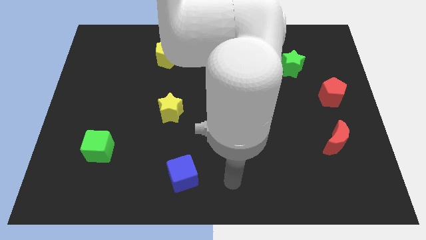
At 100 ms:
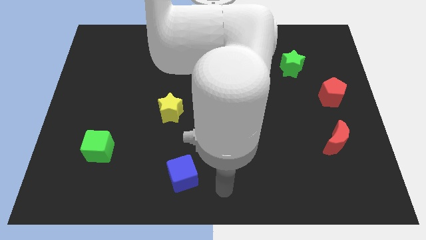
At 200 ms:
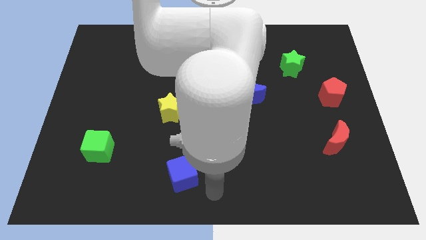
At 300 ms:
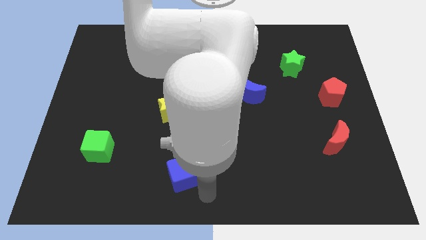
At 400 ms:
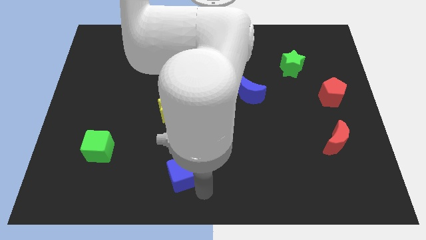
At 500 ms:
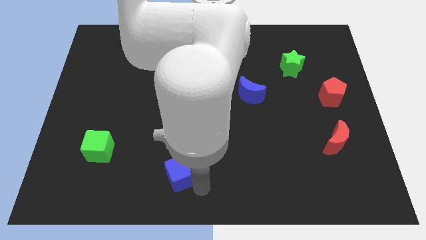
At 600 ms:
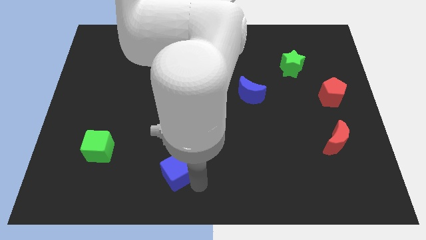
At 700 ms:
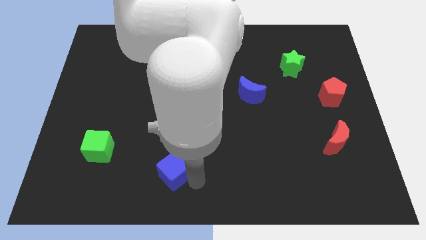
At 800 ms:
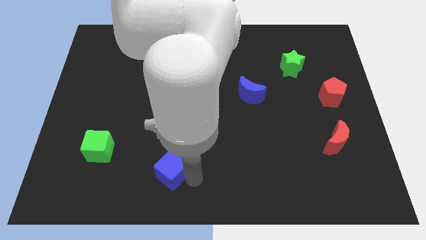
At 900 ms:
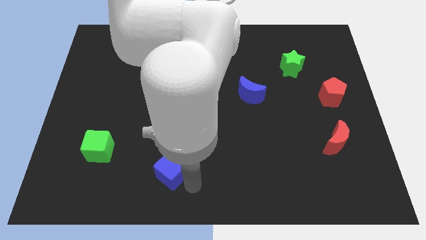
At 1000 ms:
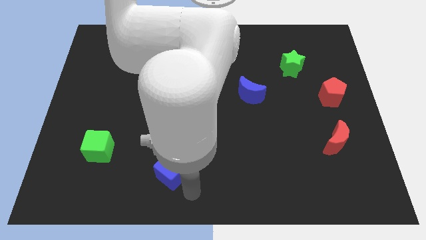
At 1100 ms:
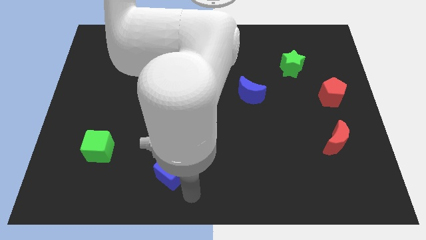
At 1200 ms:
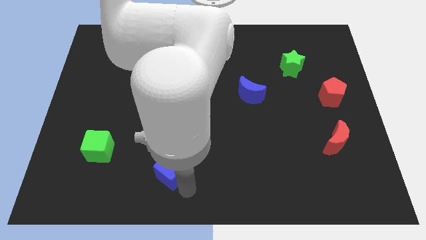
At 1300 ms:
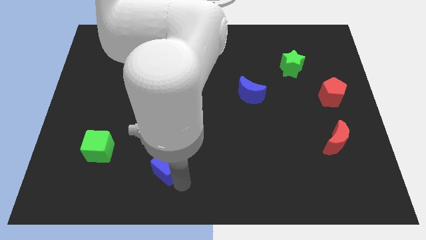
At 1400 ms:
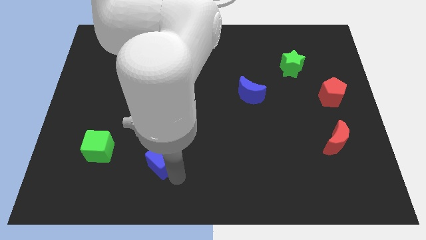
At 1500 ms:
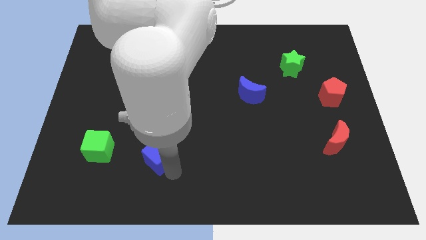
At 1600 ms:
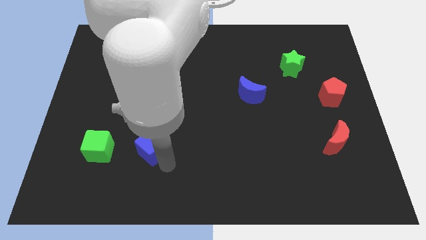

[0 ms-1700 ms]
slightly move the blue cube up and then to the left

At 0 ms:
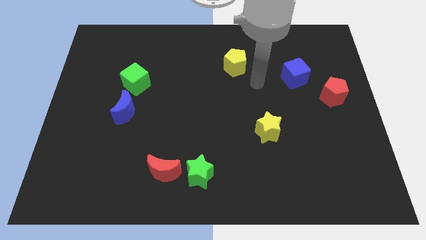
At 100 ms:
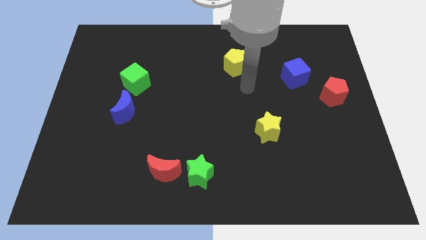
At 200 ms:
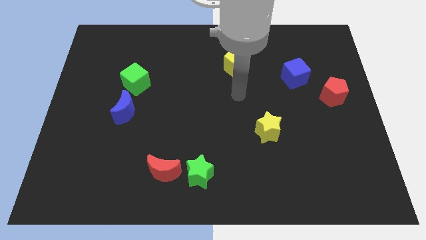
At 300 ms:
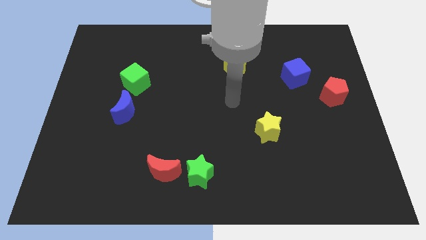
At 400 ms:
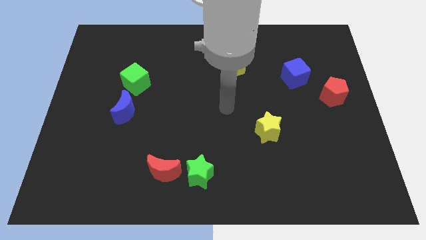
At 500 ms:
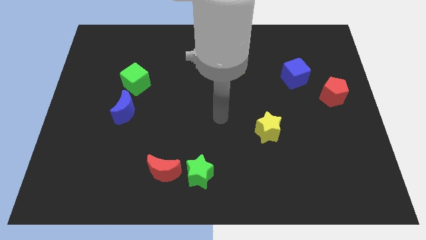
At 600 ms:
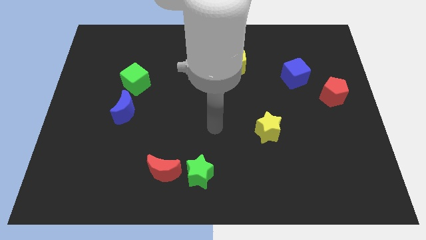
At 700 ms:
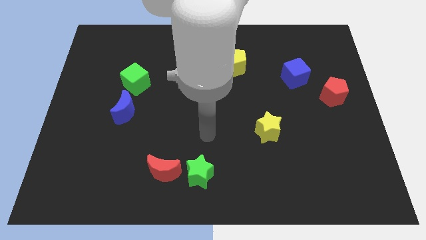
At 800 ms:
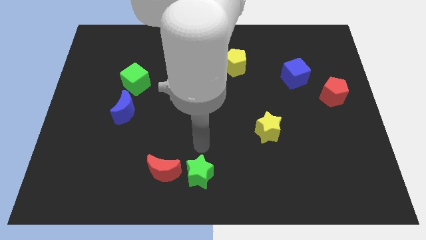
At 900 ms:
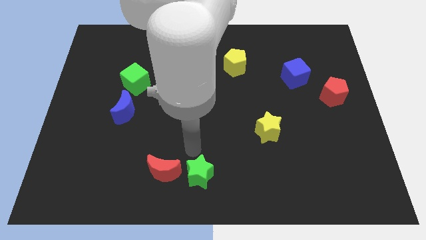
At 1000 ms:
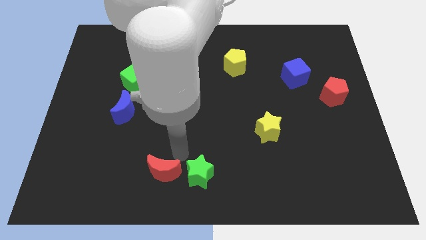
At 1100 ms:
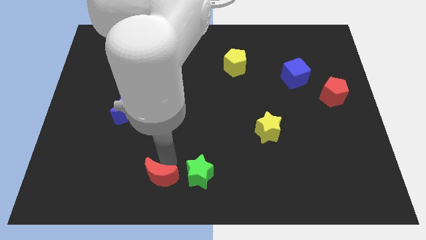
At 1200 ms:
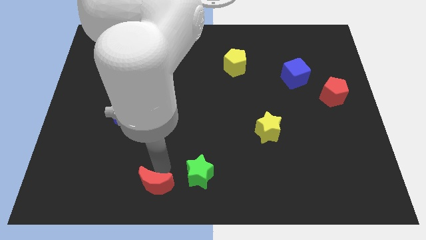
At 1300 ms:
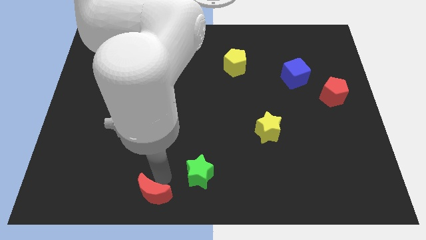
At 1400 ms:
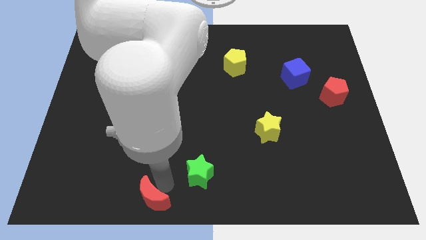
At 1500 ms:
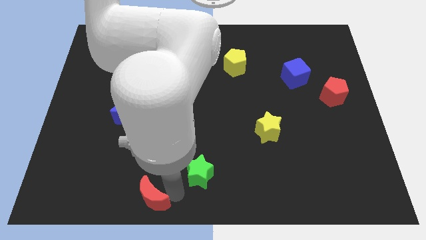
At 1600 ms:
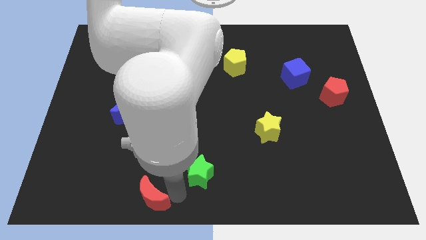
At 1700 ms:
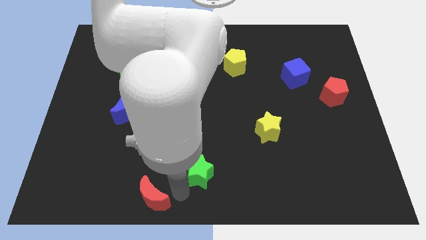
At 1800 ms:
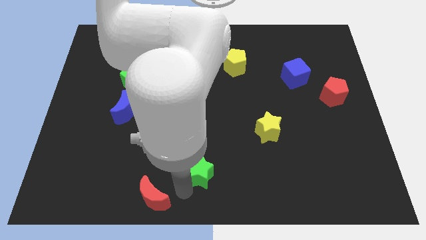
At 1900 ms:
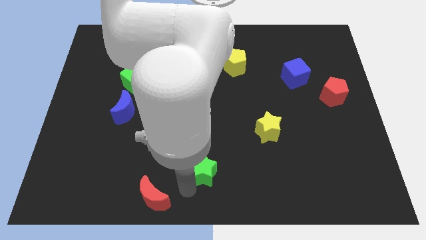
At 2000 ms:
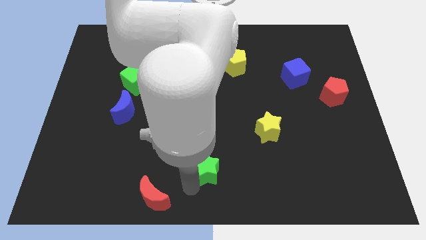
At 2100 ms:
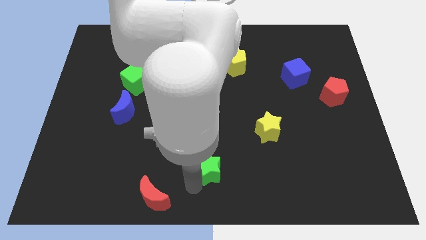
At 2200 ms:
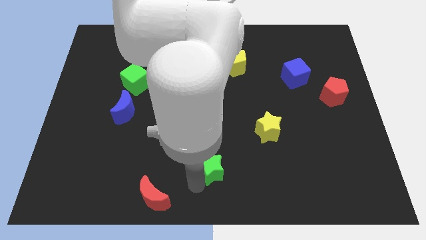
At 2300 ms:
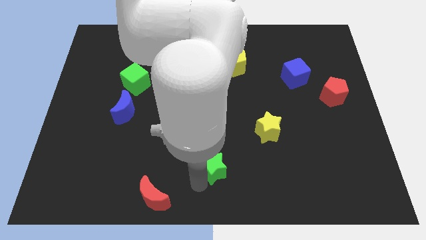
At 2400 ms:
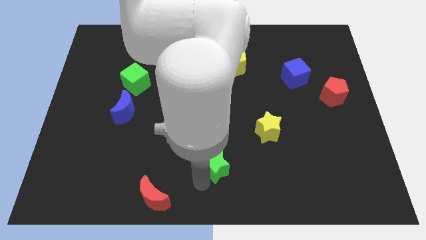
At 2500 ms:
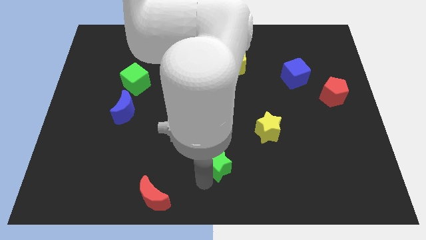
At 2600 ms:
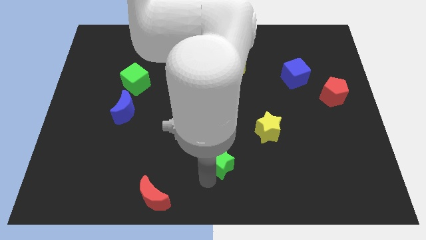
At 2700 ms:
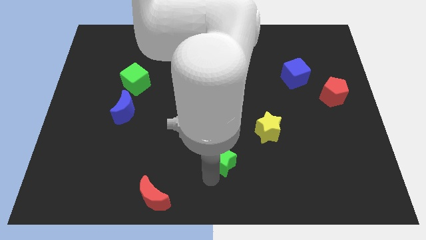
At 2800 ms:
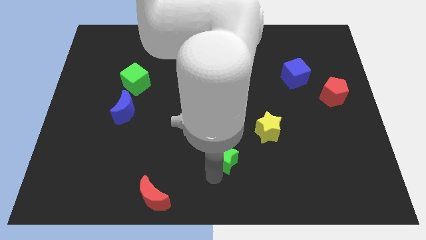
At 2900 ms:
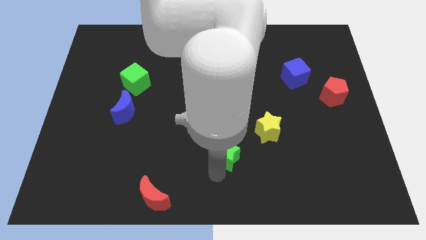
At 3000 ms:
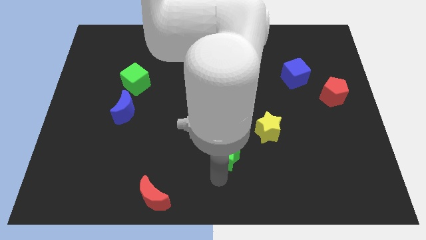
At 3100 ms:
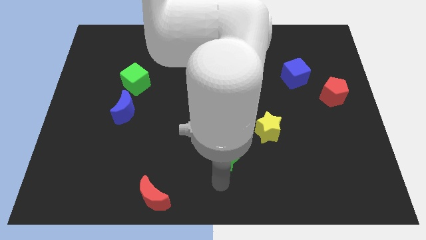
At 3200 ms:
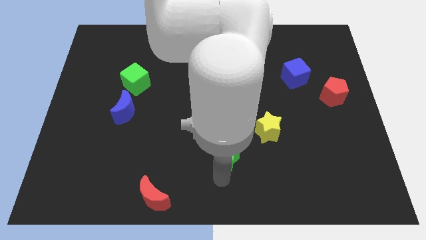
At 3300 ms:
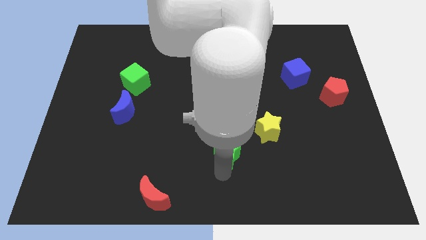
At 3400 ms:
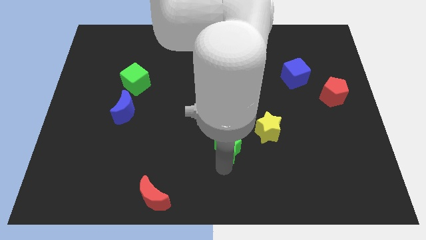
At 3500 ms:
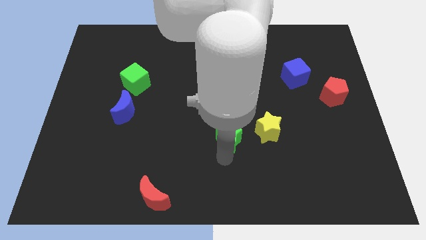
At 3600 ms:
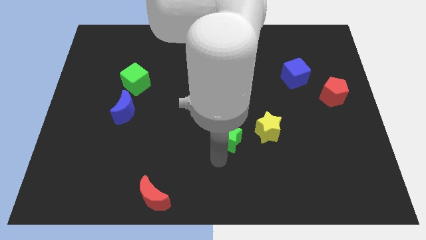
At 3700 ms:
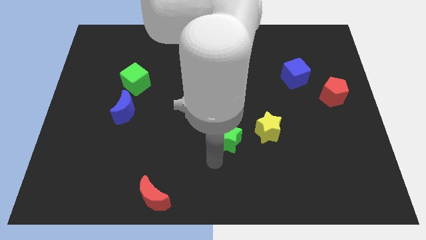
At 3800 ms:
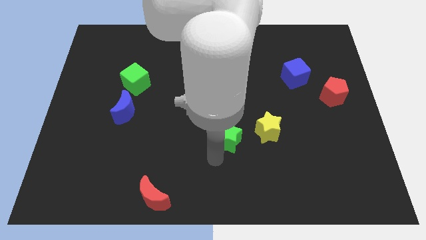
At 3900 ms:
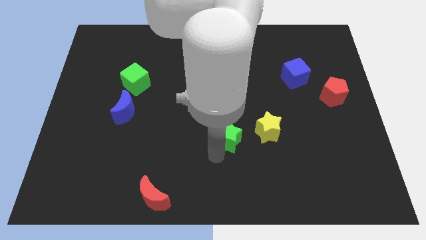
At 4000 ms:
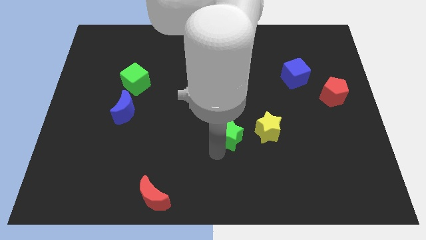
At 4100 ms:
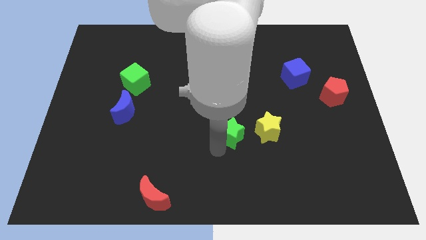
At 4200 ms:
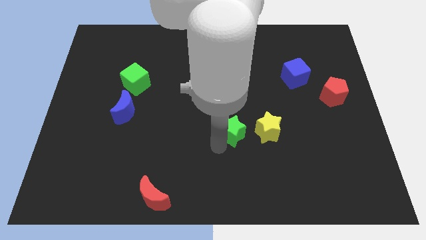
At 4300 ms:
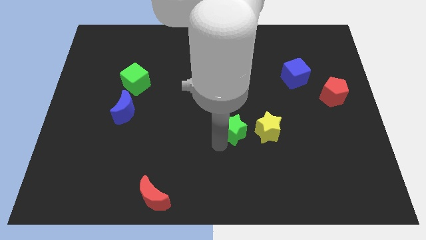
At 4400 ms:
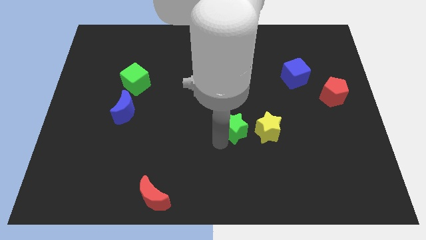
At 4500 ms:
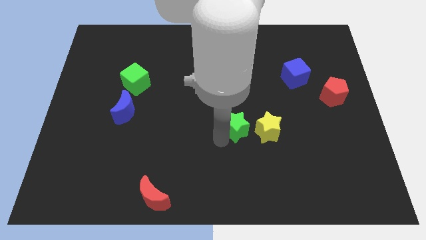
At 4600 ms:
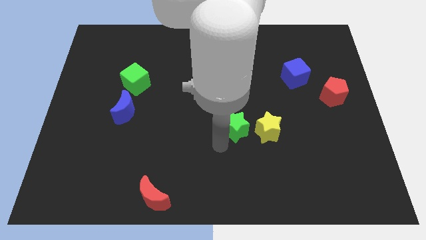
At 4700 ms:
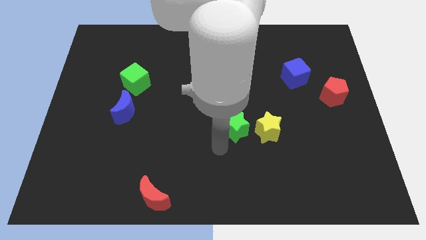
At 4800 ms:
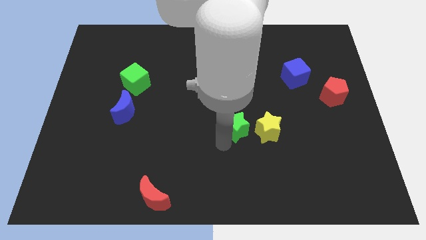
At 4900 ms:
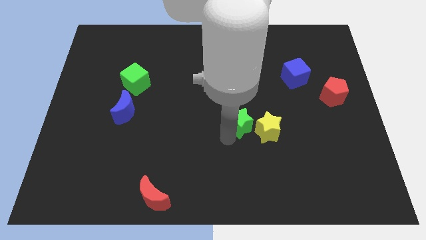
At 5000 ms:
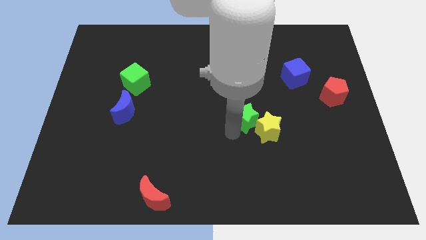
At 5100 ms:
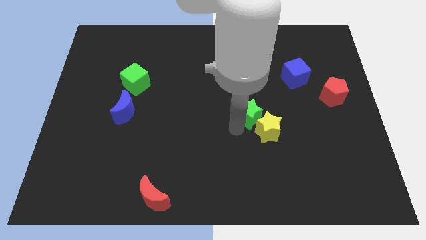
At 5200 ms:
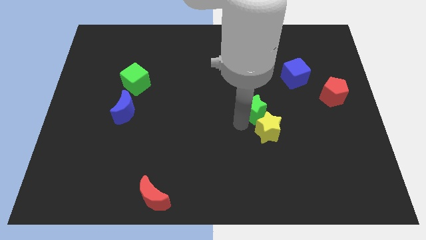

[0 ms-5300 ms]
slide the green star upwards and right

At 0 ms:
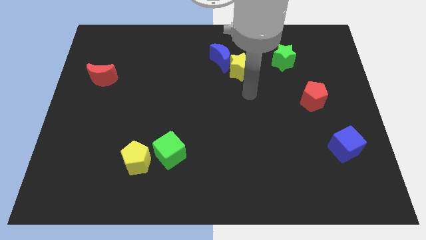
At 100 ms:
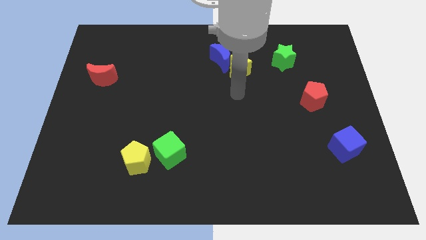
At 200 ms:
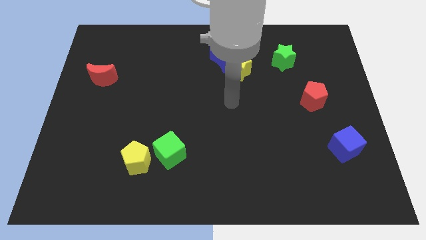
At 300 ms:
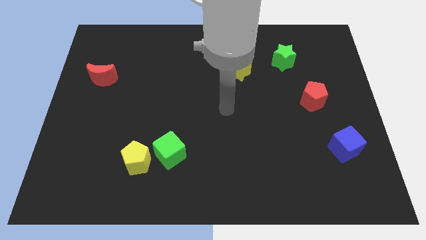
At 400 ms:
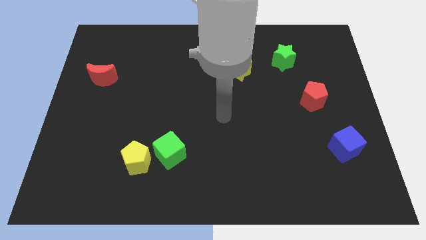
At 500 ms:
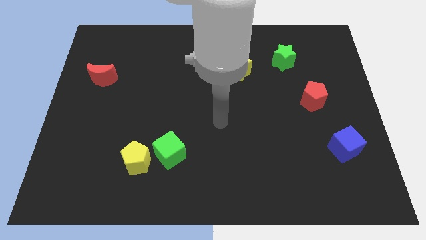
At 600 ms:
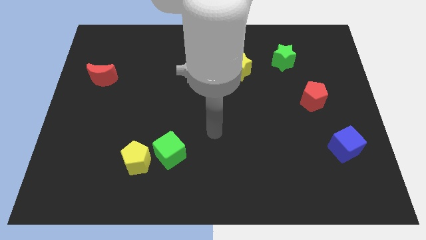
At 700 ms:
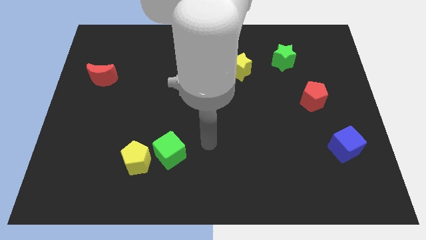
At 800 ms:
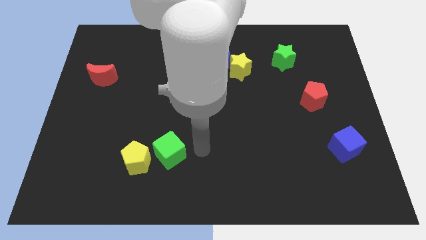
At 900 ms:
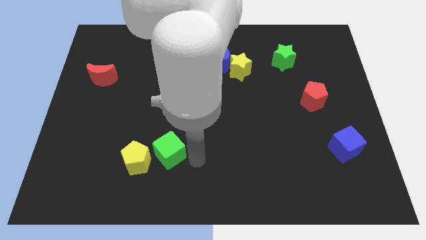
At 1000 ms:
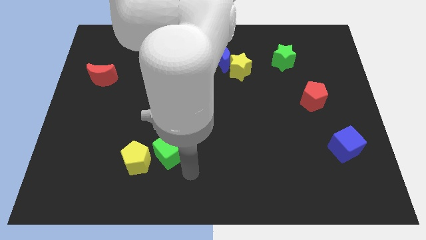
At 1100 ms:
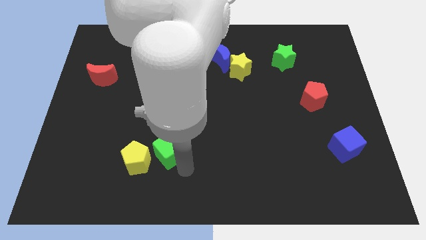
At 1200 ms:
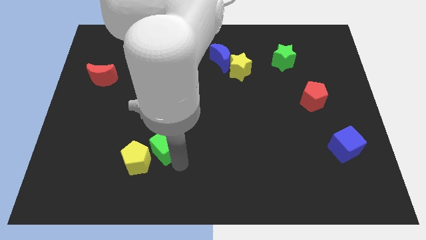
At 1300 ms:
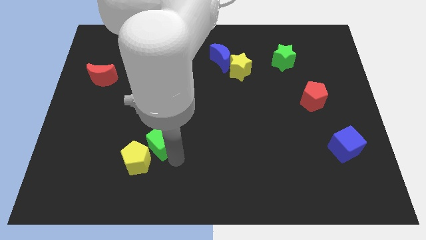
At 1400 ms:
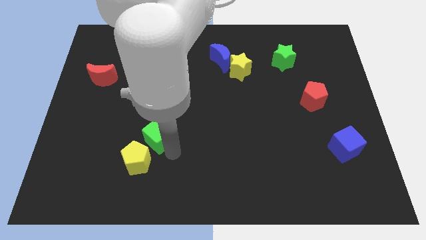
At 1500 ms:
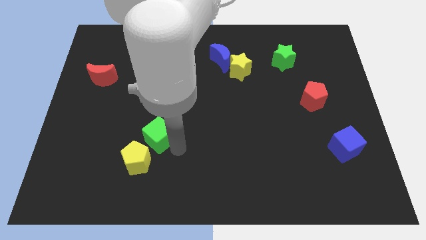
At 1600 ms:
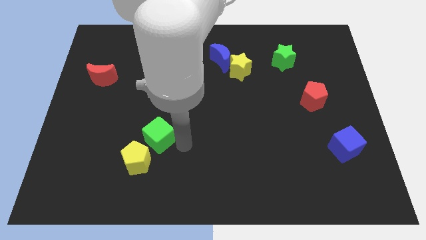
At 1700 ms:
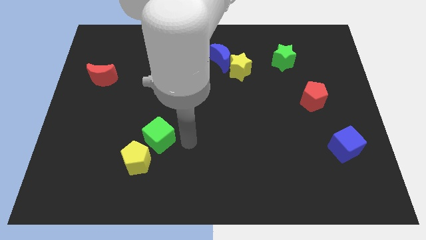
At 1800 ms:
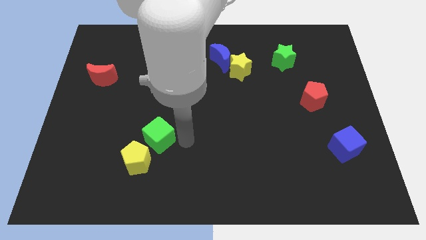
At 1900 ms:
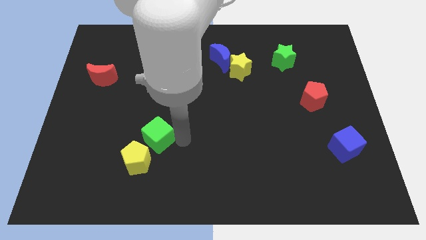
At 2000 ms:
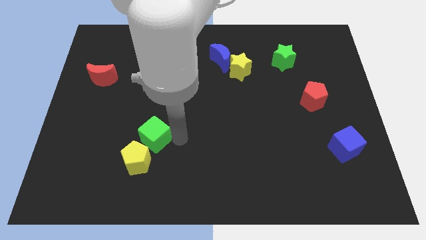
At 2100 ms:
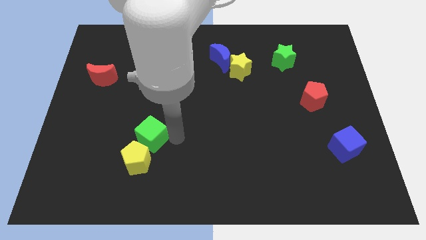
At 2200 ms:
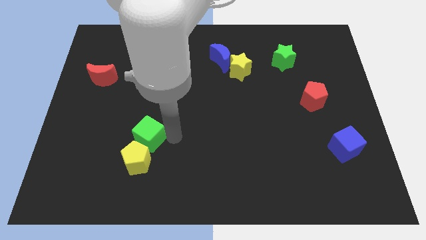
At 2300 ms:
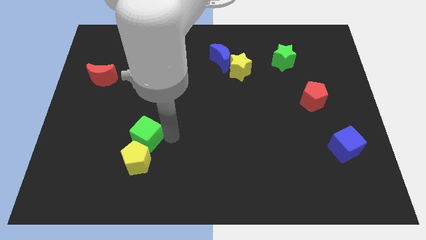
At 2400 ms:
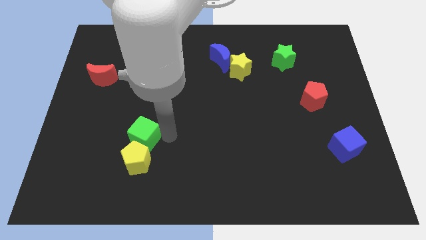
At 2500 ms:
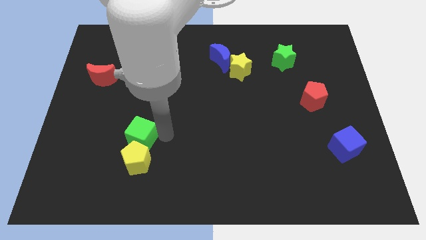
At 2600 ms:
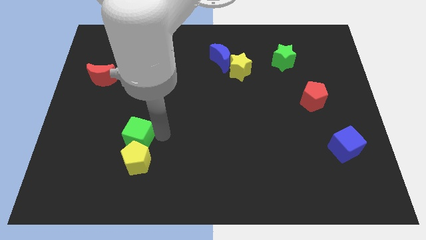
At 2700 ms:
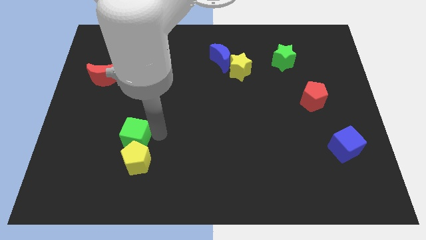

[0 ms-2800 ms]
push the green cube a bit to the left
